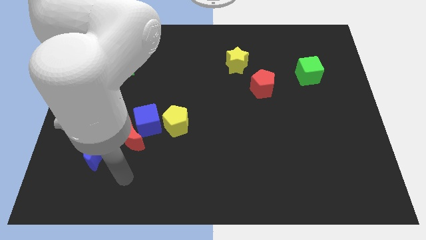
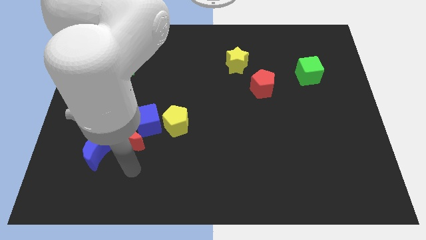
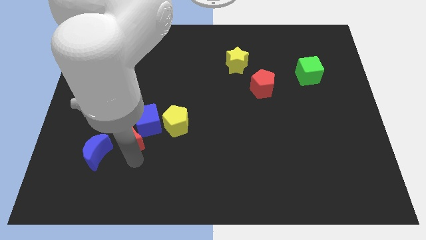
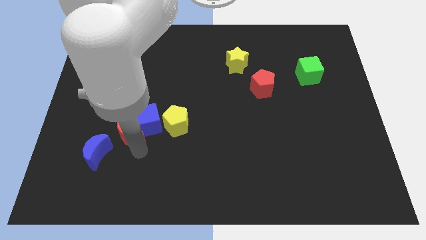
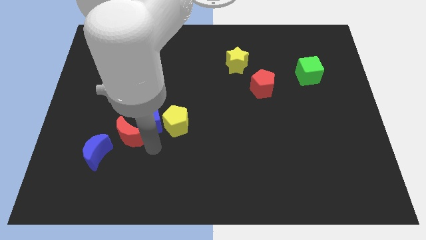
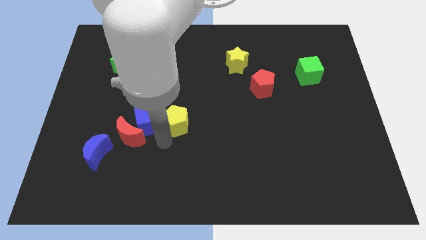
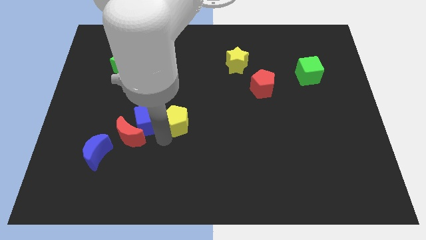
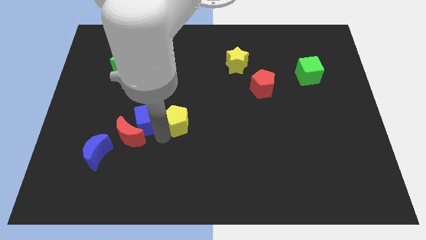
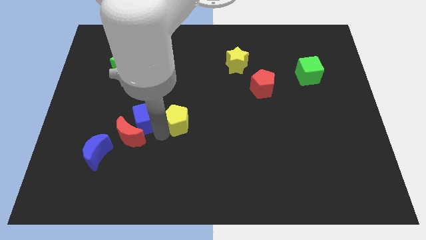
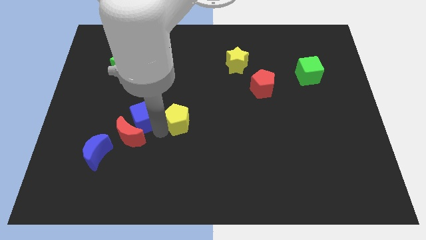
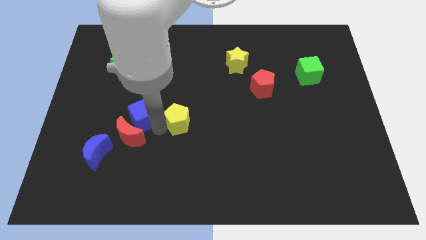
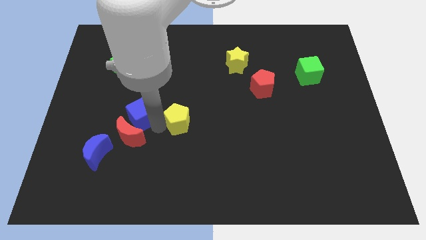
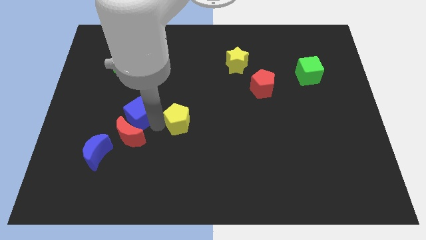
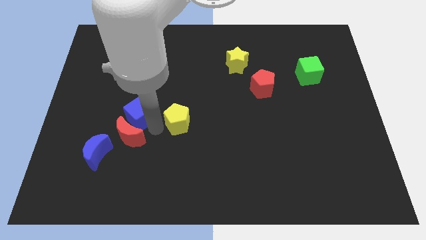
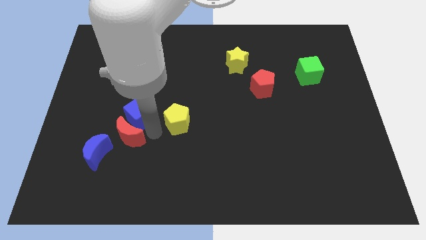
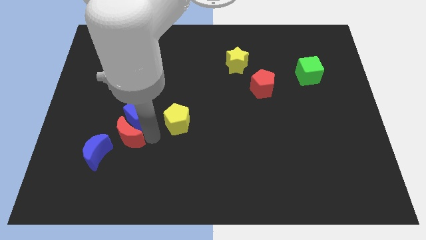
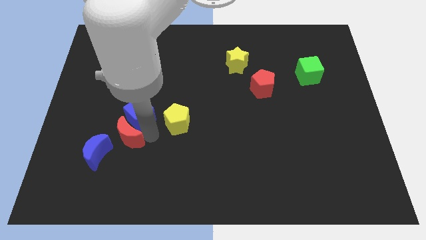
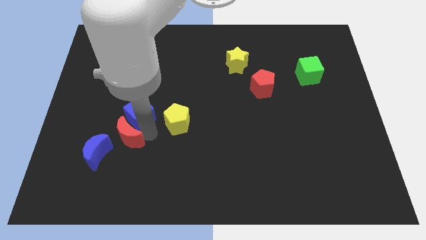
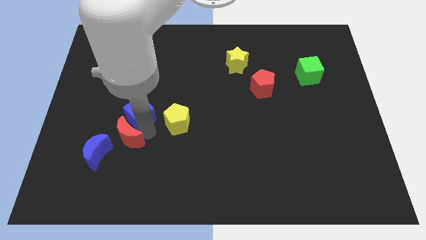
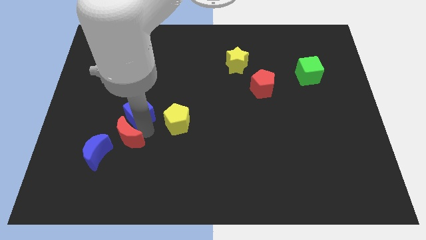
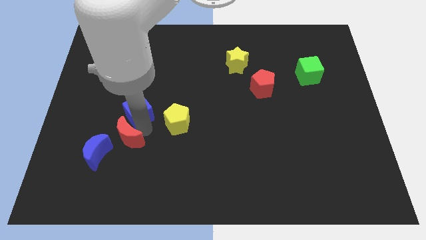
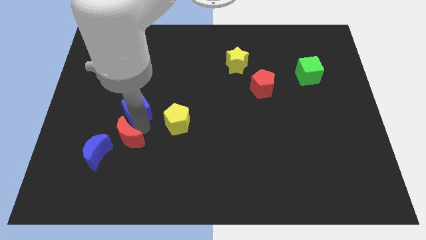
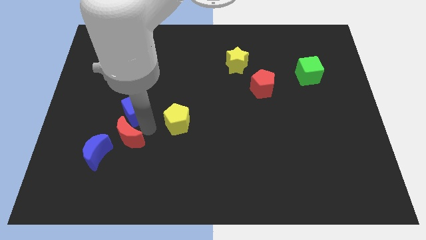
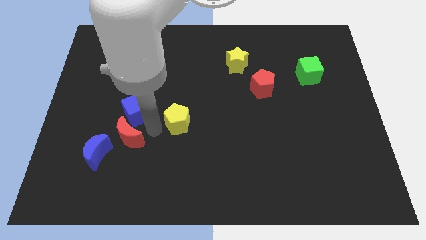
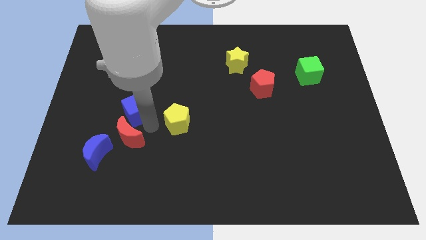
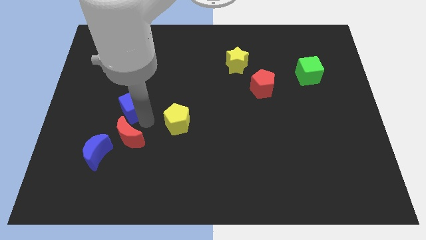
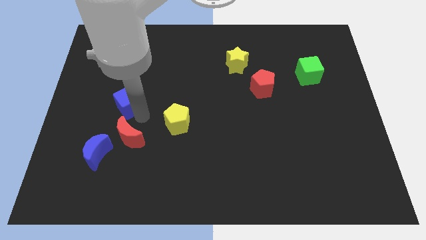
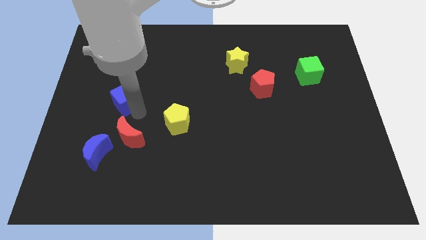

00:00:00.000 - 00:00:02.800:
move the blue cube away from the red moon and yellow pentagon

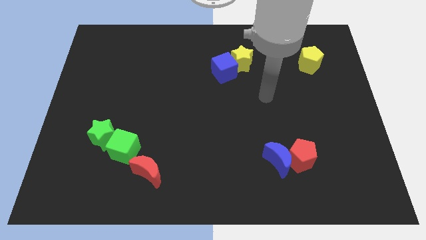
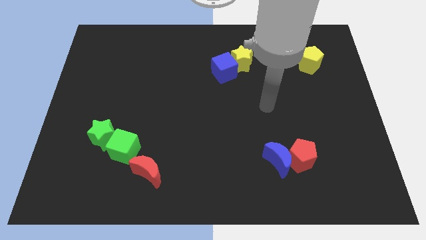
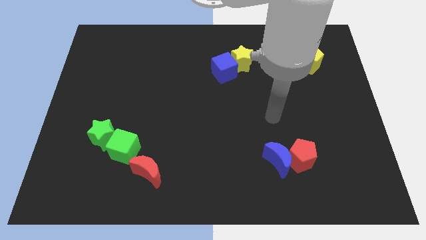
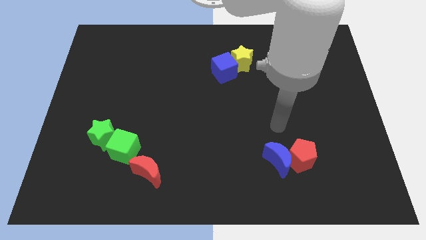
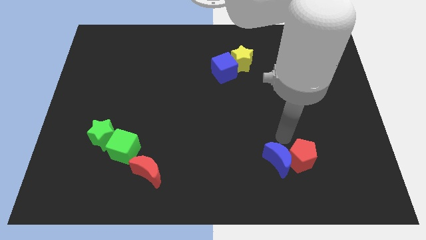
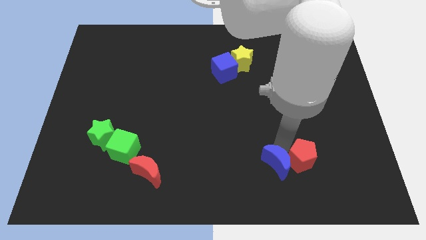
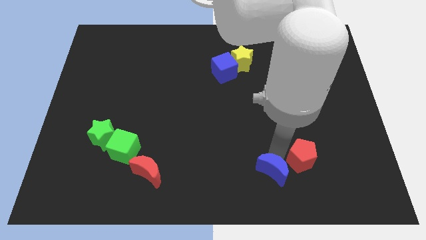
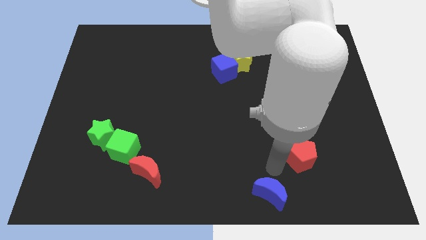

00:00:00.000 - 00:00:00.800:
pull the red pentagon apart from the blue moon

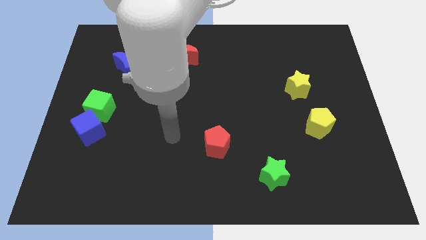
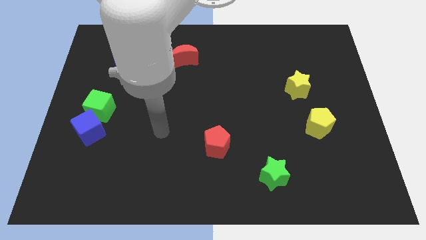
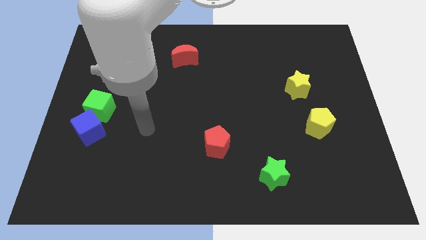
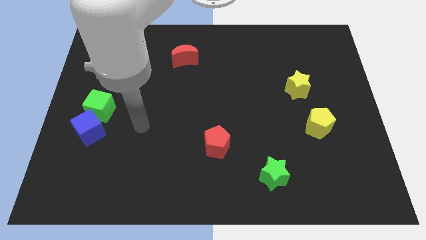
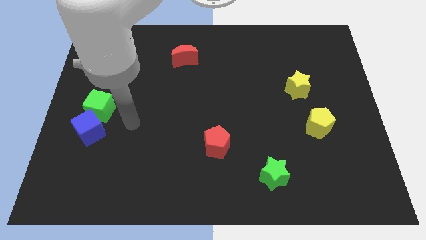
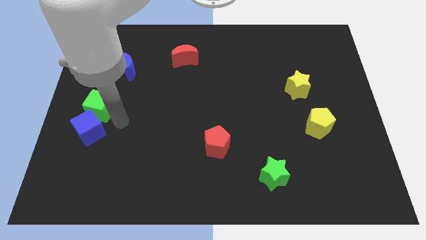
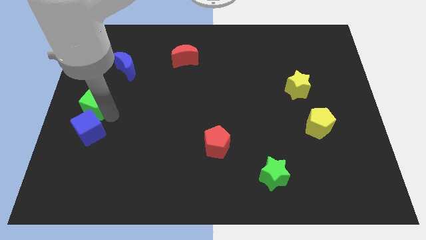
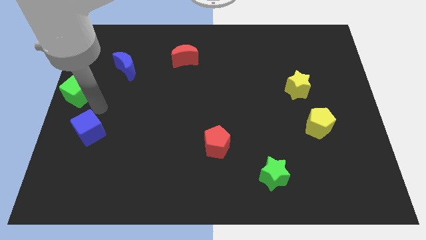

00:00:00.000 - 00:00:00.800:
separate the blue cube from the green cube

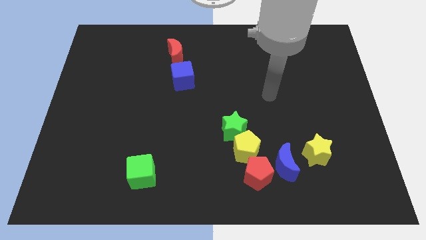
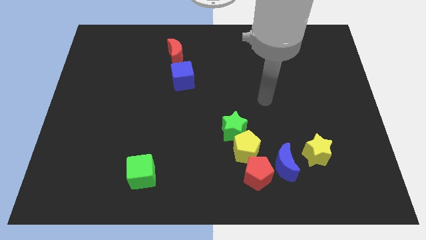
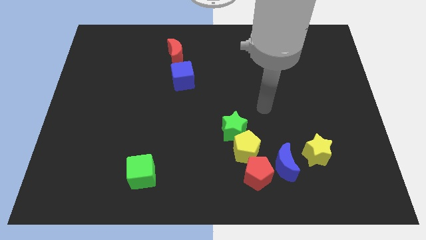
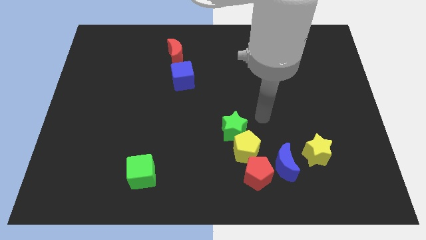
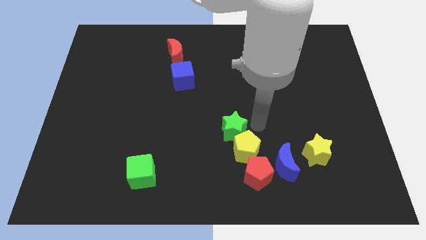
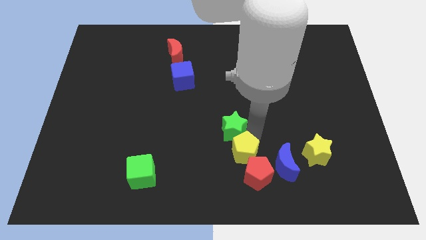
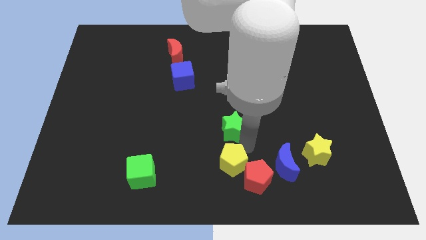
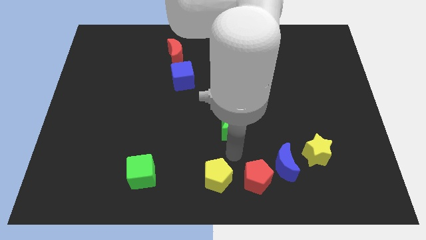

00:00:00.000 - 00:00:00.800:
separate the green star from the yellow pentagon

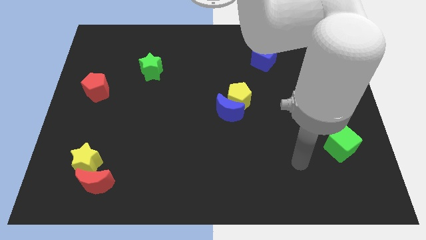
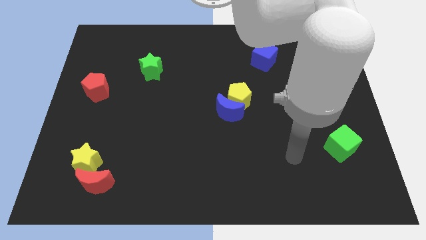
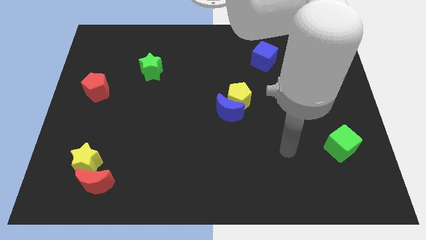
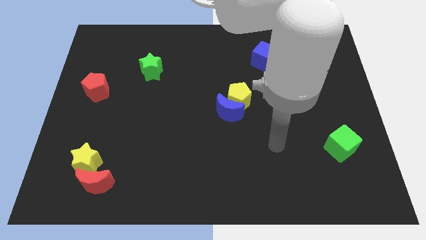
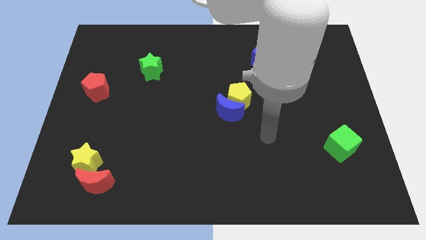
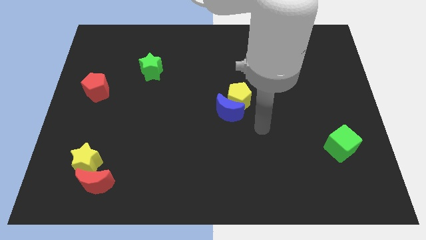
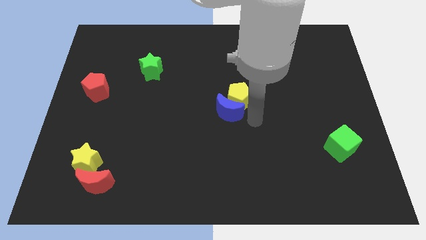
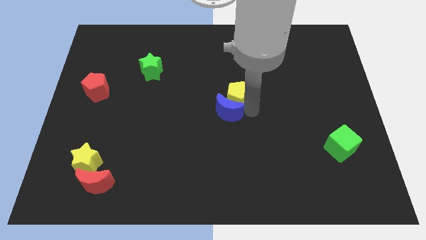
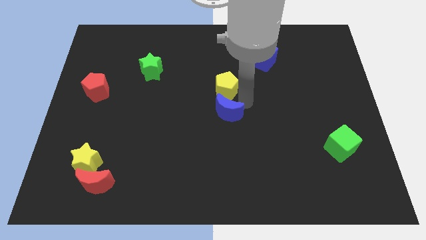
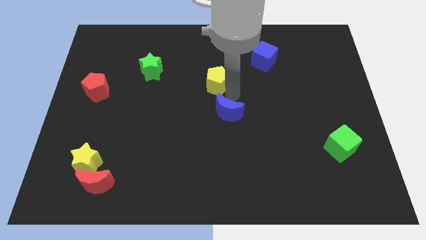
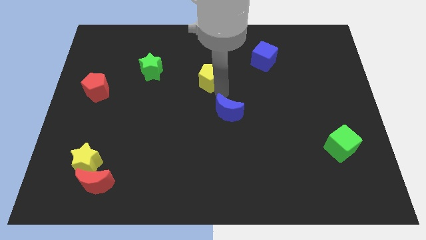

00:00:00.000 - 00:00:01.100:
move the blue moon away from the yellow pentagon

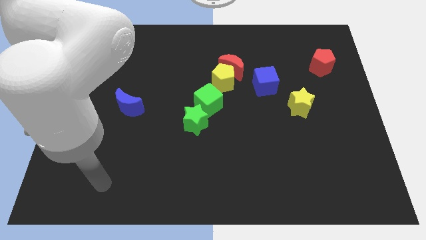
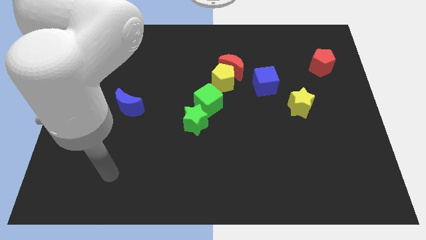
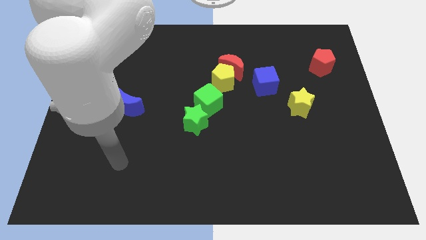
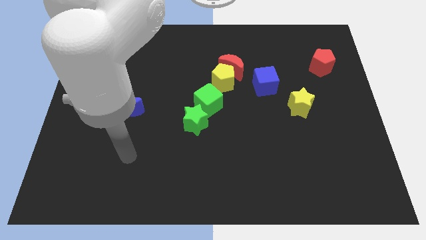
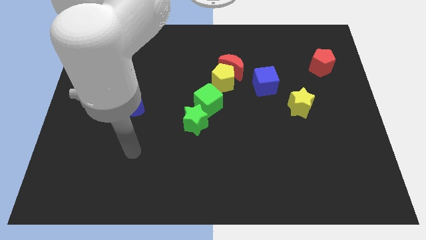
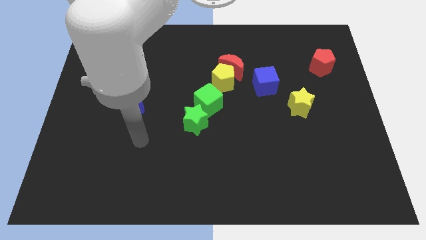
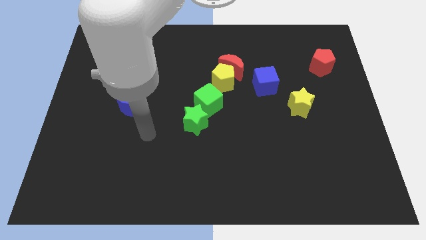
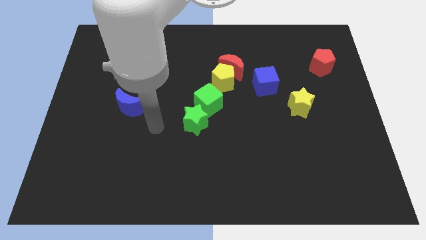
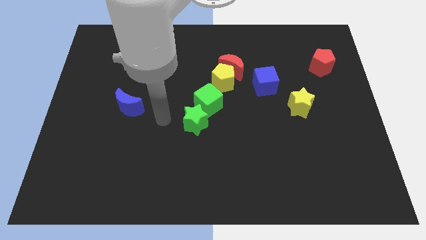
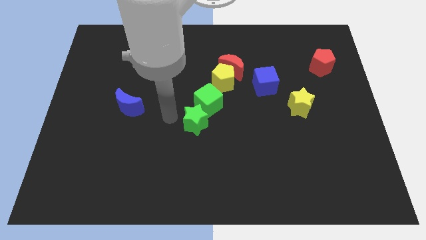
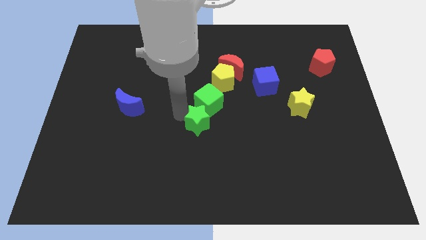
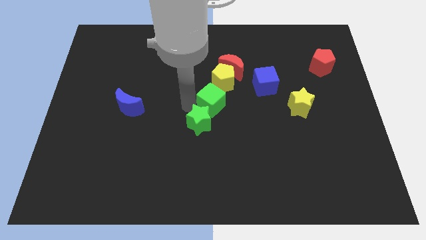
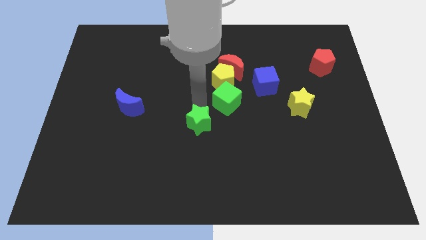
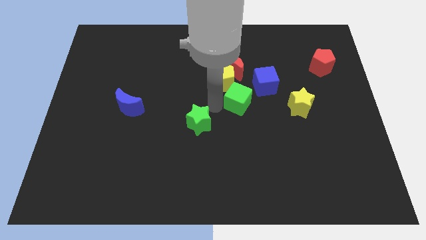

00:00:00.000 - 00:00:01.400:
separate the green star from the green cube

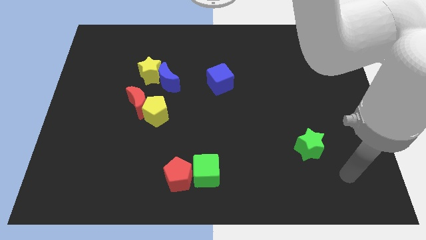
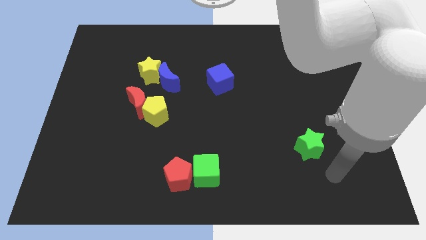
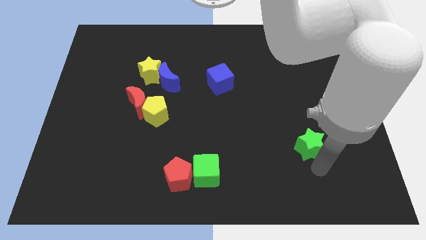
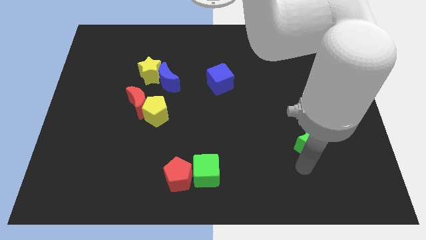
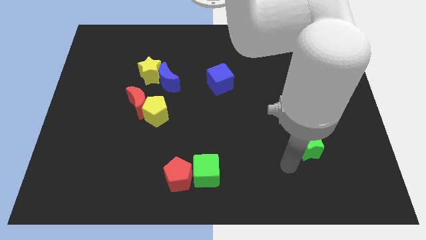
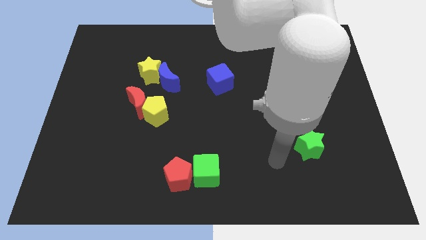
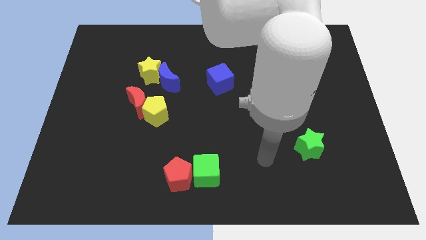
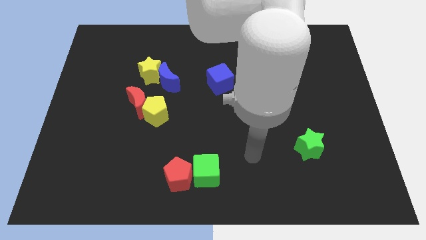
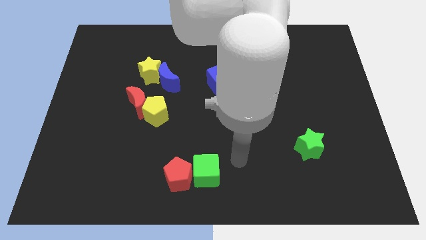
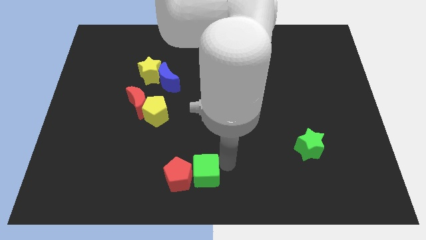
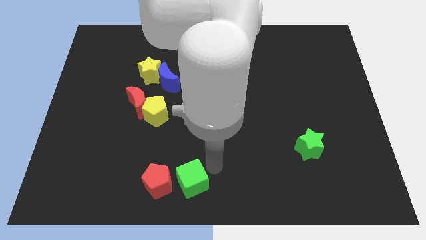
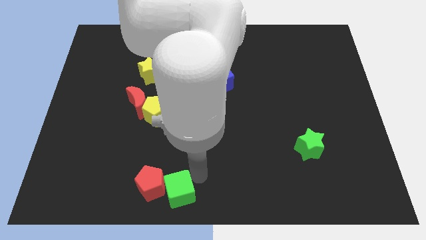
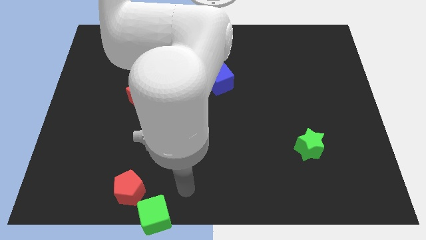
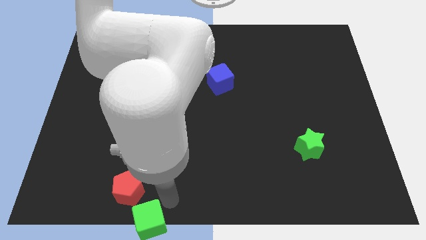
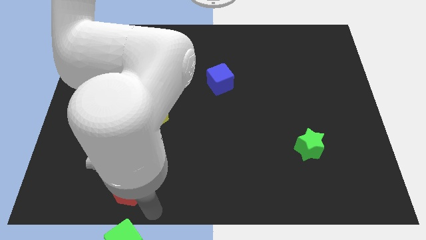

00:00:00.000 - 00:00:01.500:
pull the red pentagon apart from the green cube

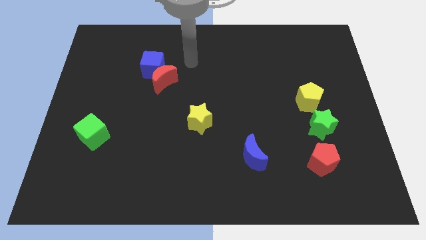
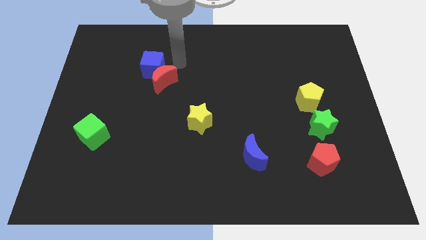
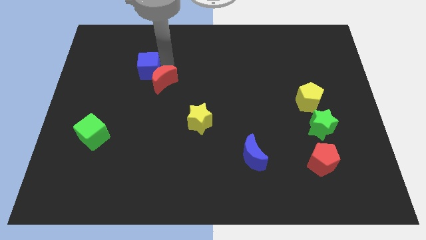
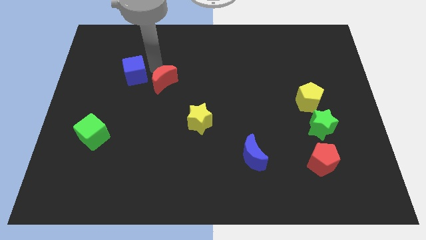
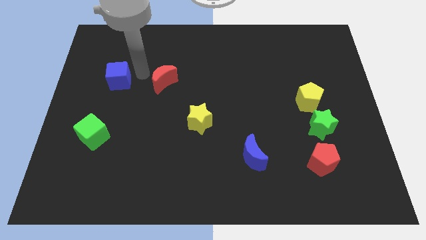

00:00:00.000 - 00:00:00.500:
pull the red moon apart from the blue cube
